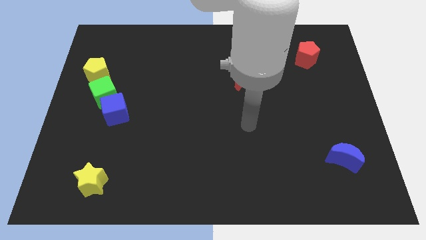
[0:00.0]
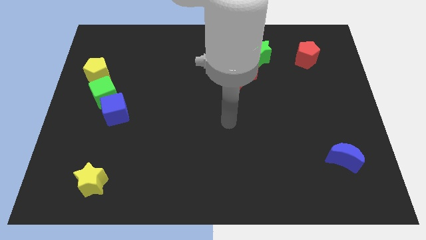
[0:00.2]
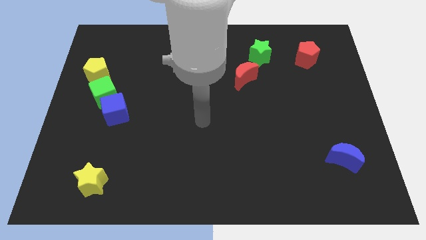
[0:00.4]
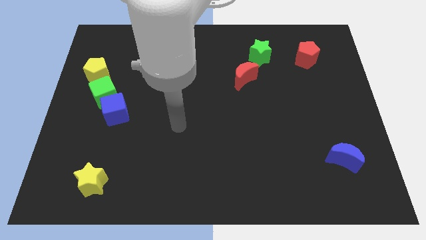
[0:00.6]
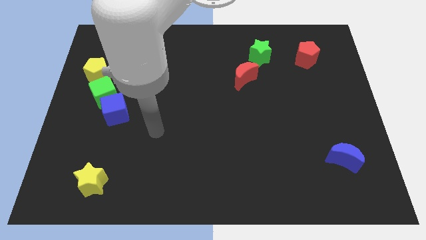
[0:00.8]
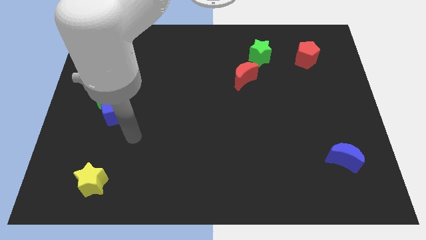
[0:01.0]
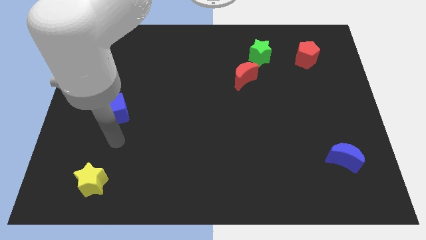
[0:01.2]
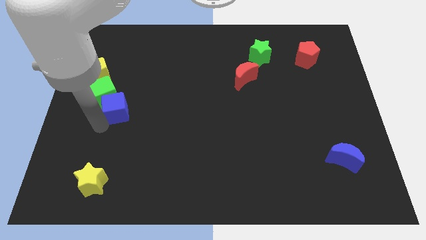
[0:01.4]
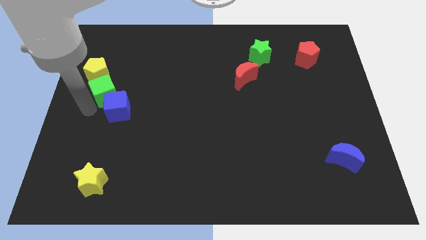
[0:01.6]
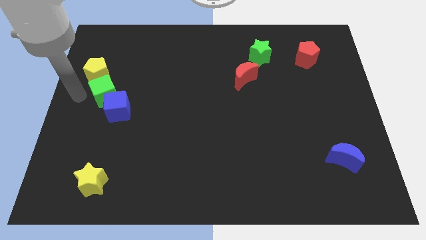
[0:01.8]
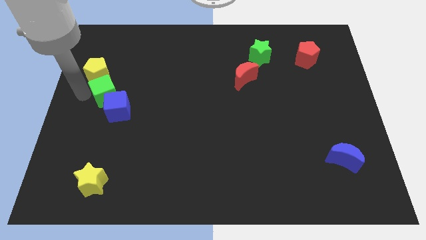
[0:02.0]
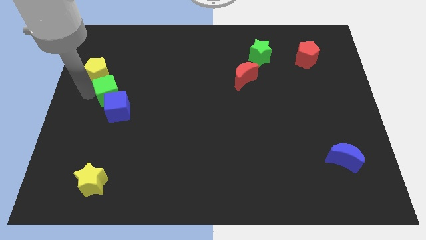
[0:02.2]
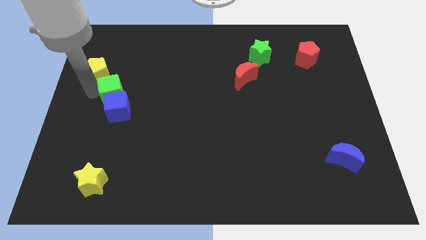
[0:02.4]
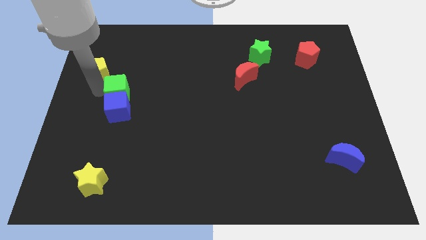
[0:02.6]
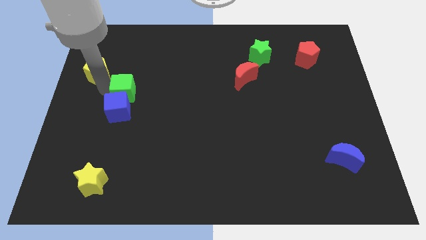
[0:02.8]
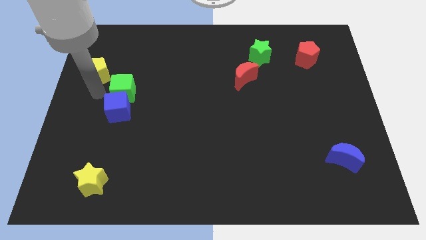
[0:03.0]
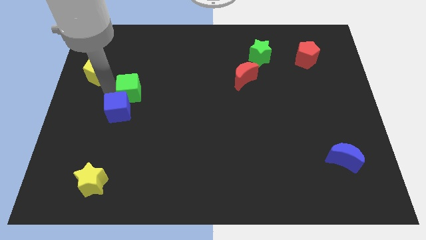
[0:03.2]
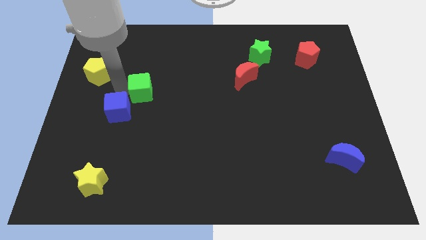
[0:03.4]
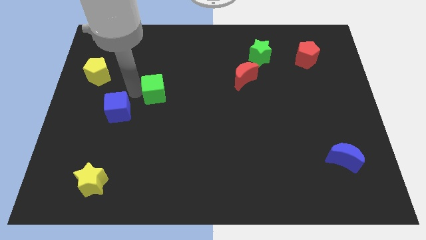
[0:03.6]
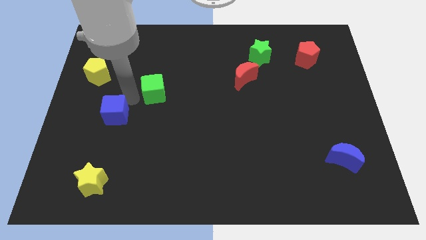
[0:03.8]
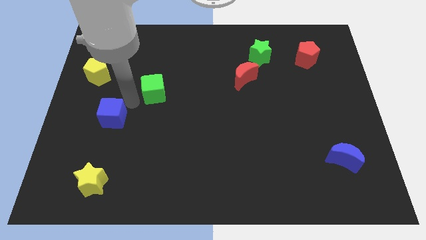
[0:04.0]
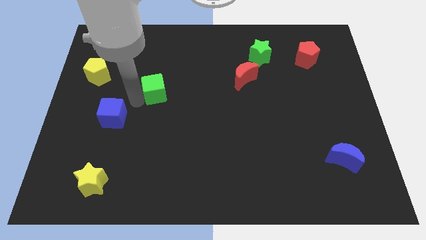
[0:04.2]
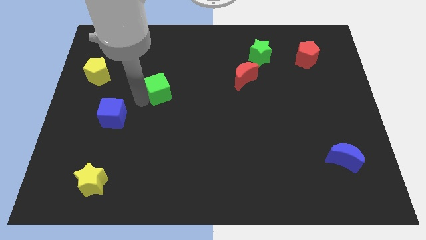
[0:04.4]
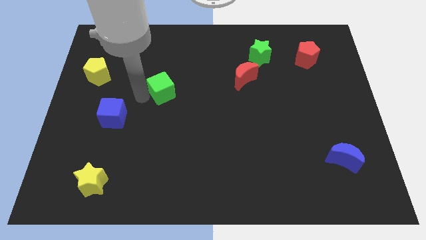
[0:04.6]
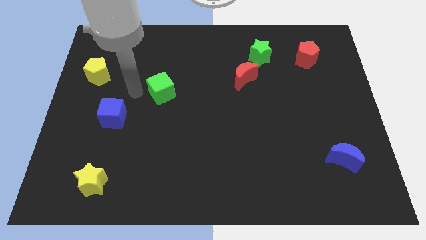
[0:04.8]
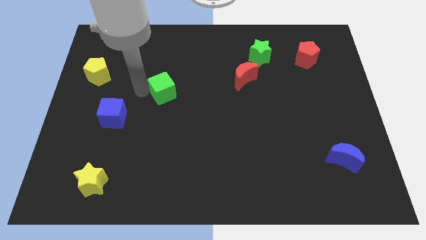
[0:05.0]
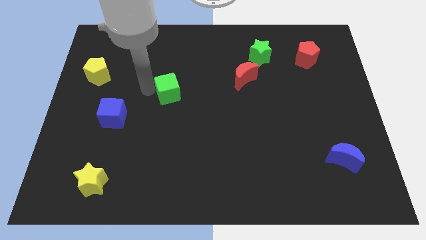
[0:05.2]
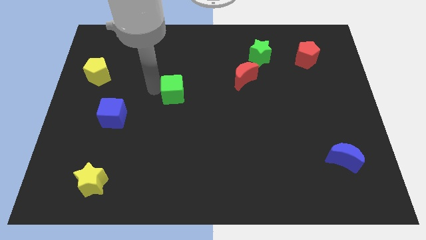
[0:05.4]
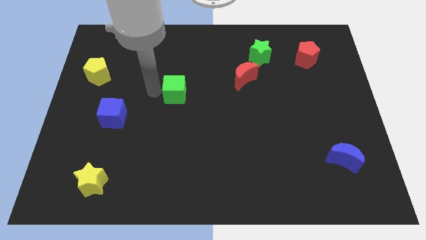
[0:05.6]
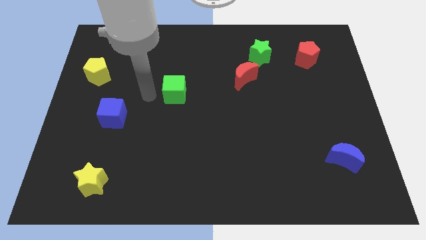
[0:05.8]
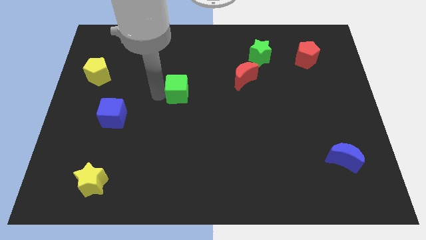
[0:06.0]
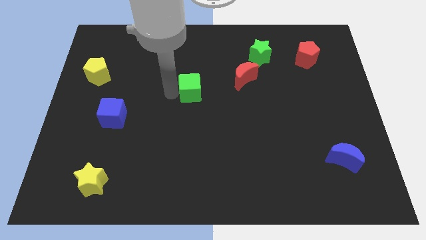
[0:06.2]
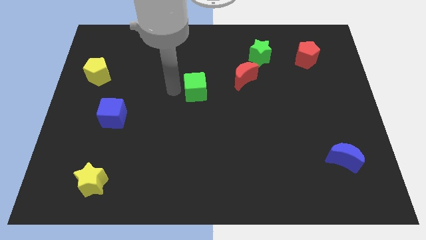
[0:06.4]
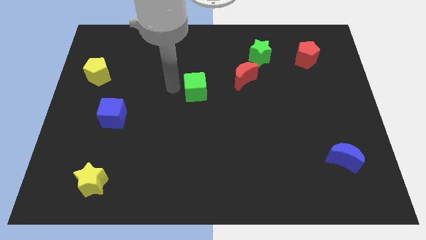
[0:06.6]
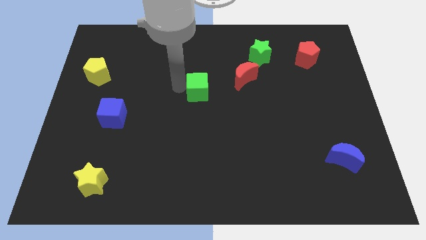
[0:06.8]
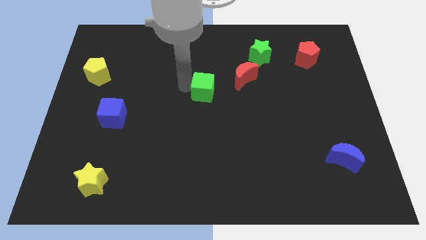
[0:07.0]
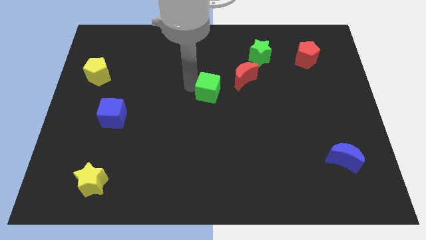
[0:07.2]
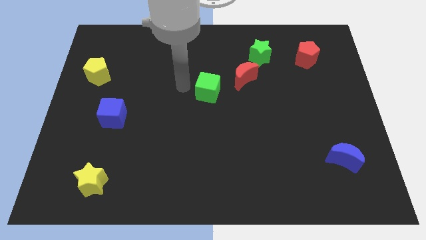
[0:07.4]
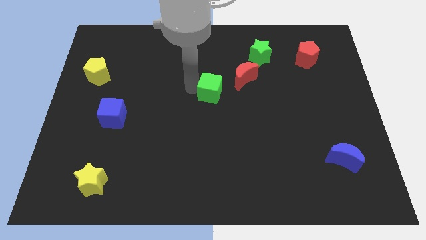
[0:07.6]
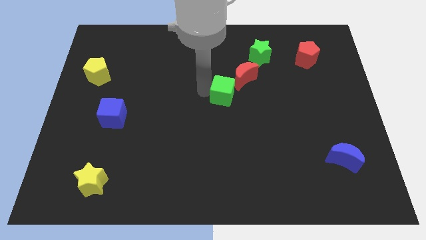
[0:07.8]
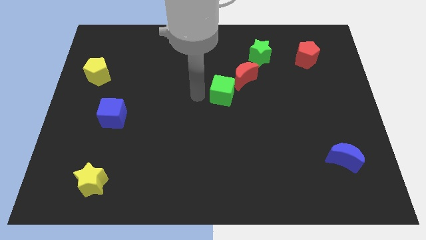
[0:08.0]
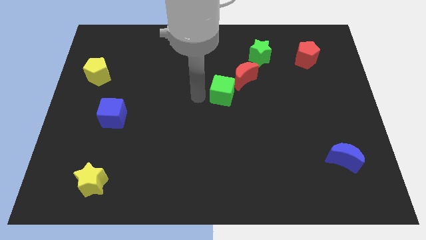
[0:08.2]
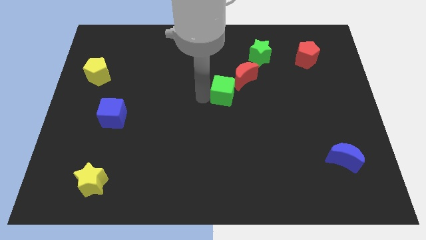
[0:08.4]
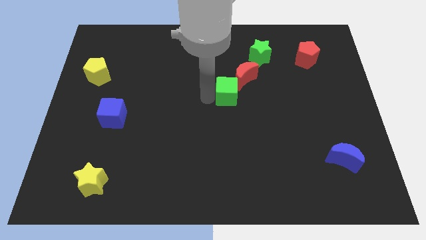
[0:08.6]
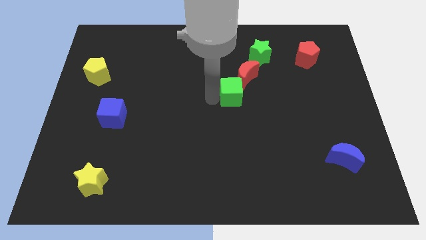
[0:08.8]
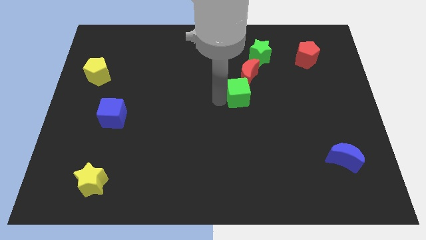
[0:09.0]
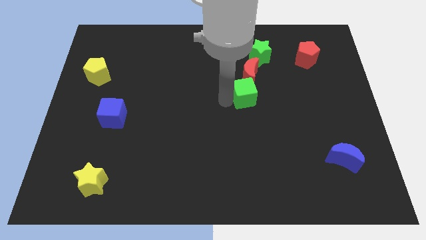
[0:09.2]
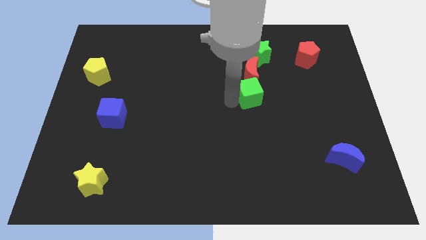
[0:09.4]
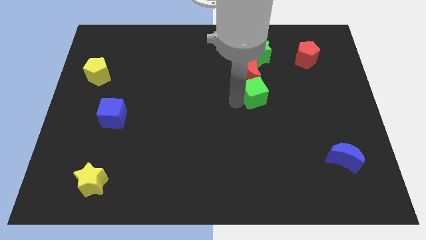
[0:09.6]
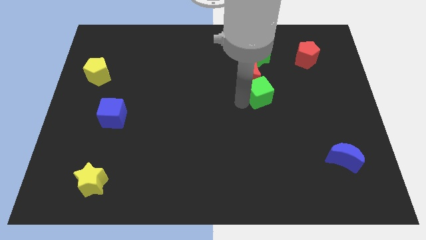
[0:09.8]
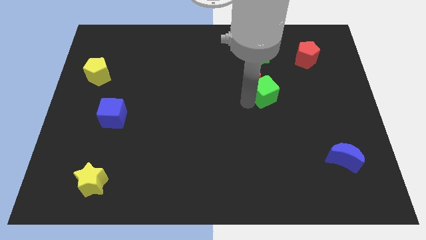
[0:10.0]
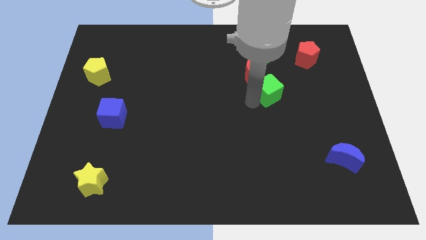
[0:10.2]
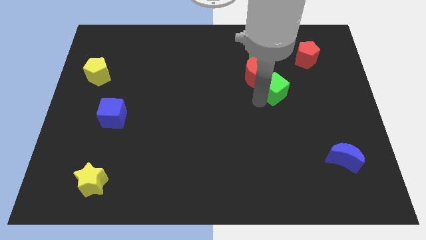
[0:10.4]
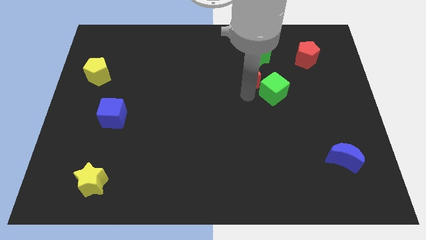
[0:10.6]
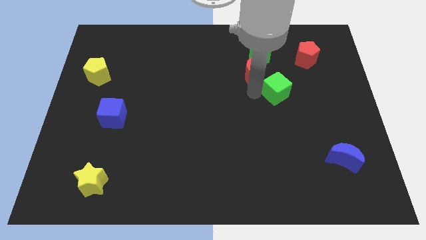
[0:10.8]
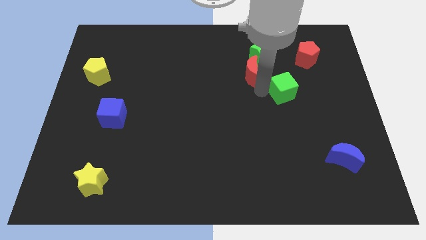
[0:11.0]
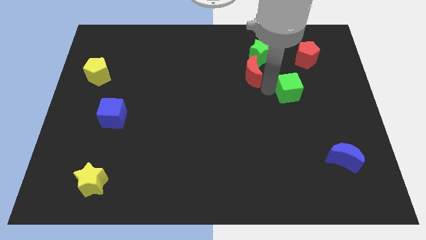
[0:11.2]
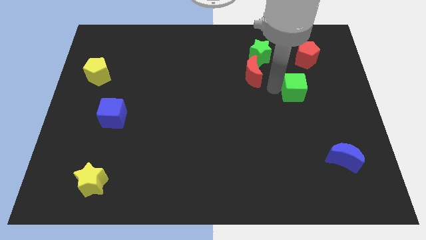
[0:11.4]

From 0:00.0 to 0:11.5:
move the green cube below the red pentagon

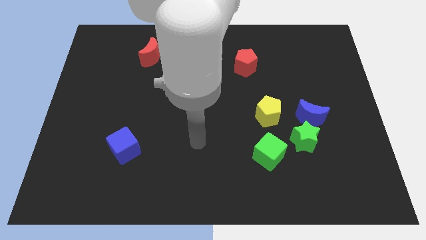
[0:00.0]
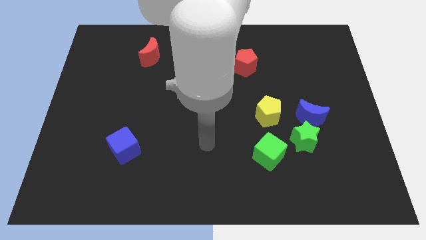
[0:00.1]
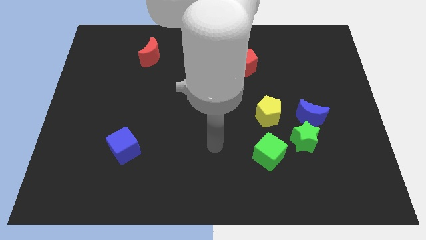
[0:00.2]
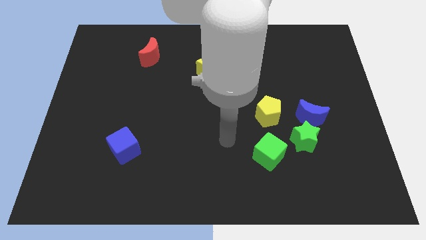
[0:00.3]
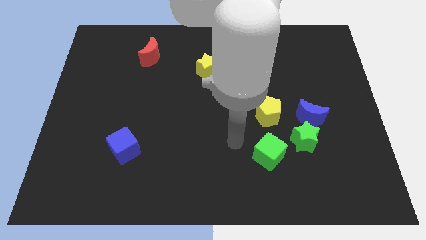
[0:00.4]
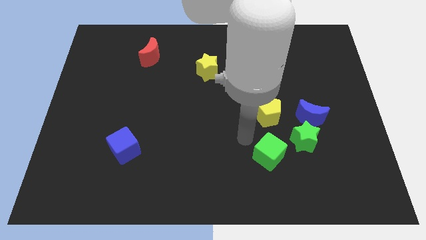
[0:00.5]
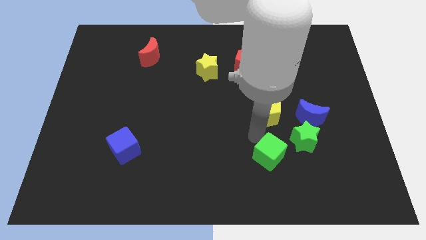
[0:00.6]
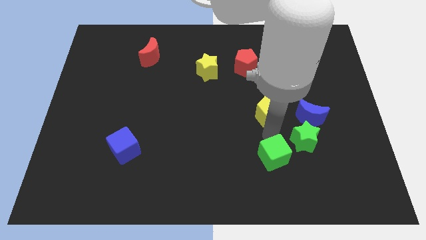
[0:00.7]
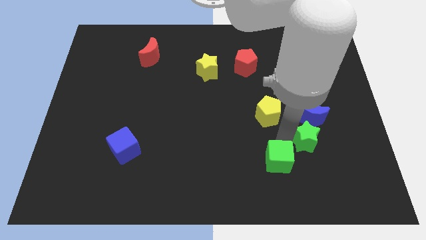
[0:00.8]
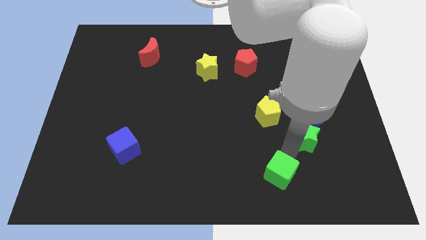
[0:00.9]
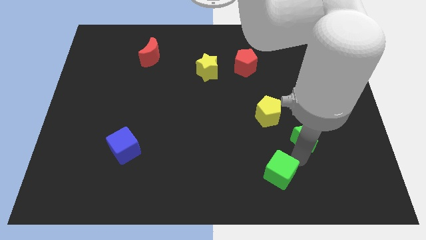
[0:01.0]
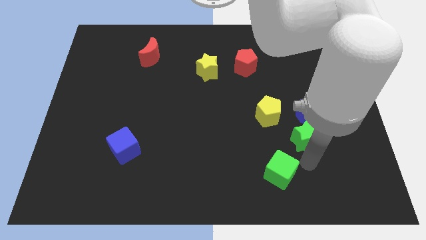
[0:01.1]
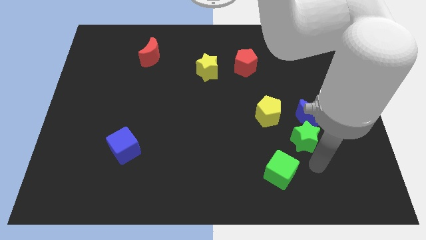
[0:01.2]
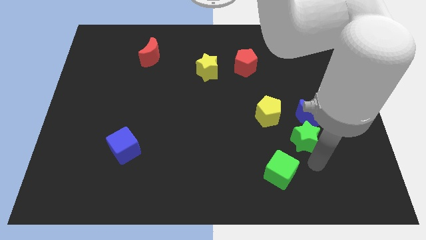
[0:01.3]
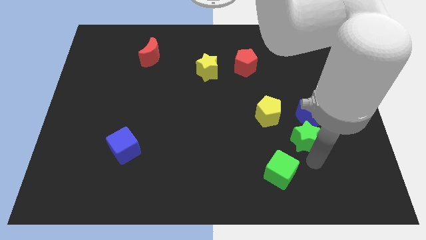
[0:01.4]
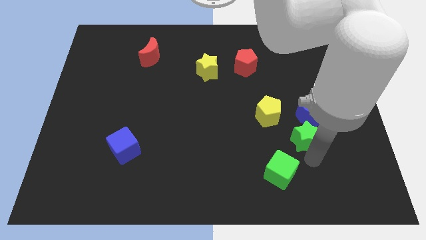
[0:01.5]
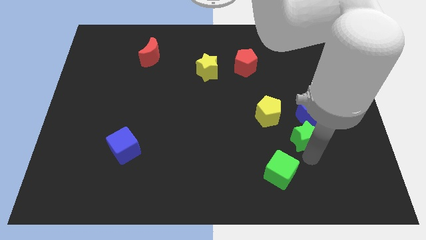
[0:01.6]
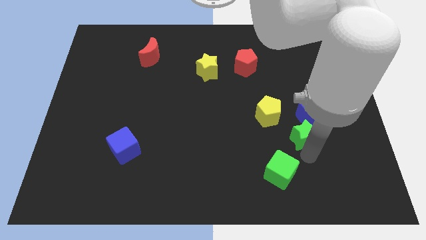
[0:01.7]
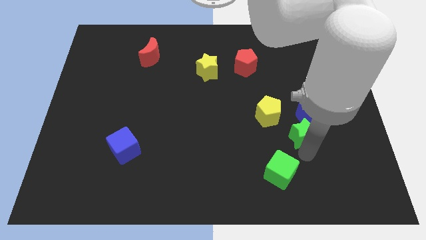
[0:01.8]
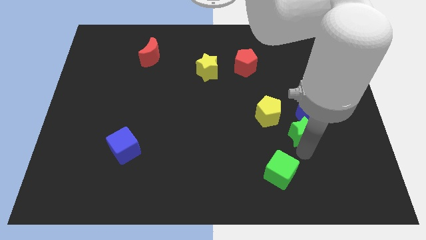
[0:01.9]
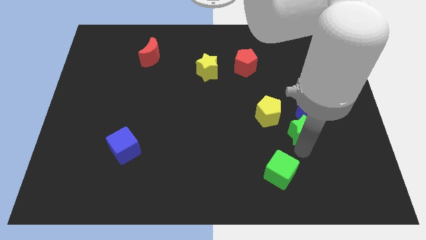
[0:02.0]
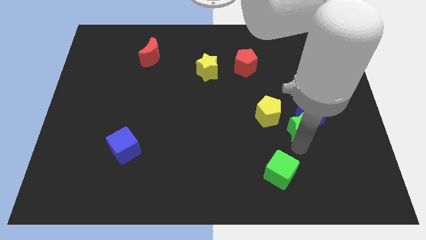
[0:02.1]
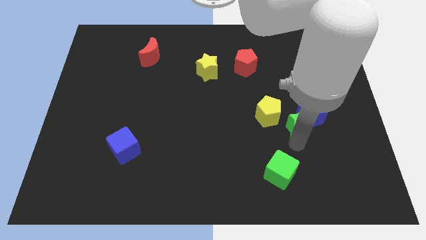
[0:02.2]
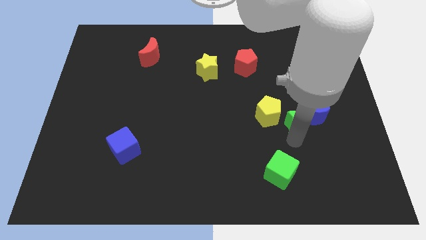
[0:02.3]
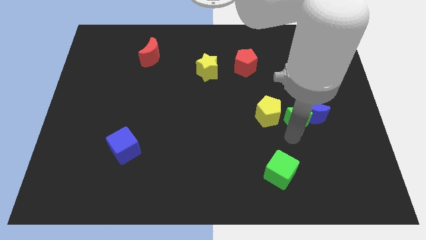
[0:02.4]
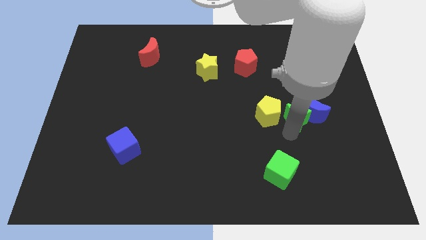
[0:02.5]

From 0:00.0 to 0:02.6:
slide the green star diagonally up and to the left of the blue moon
